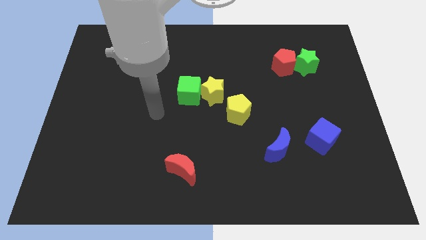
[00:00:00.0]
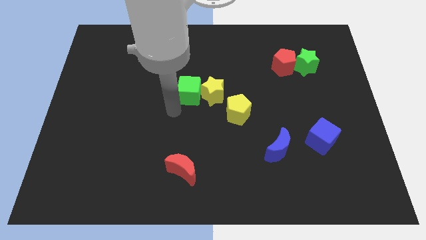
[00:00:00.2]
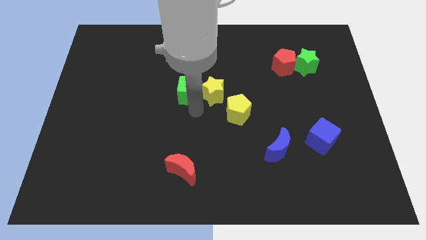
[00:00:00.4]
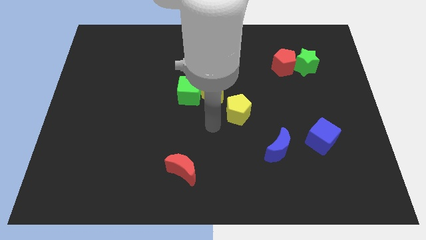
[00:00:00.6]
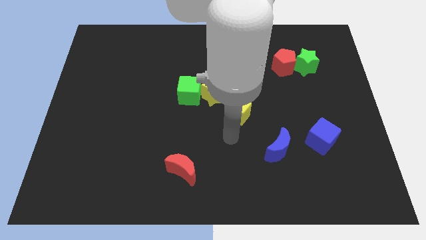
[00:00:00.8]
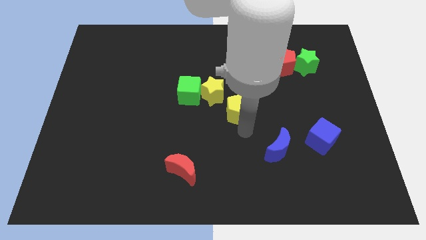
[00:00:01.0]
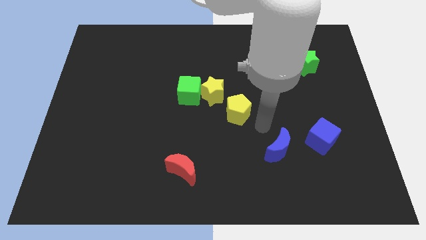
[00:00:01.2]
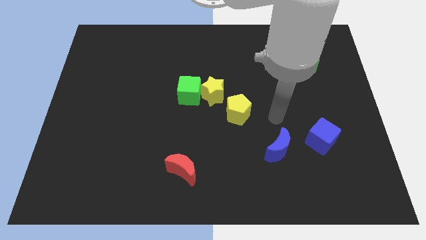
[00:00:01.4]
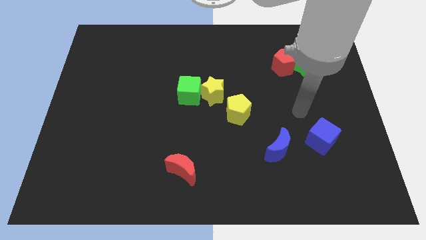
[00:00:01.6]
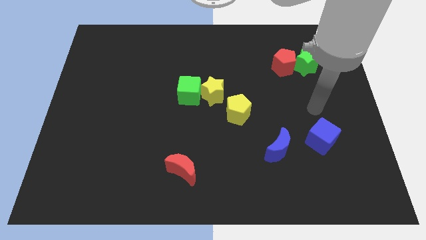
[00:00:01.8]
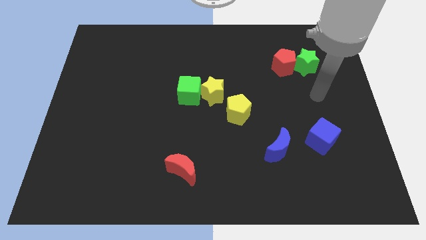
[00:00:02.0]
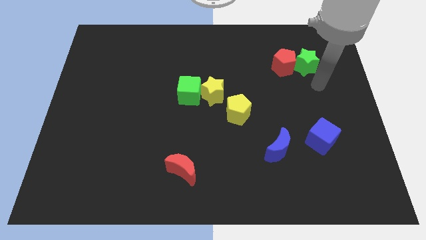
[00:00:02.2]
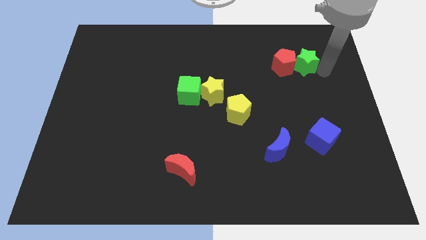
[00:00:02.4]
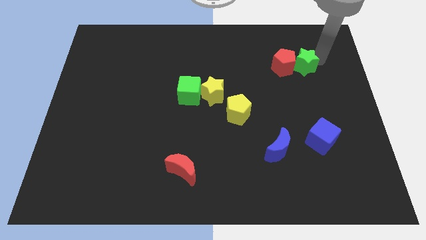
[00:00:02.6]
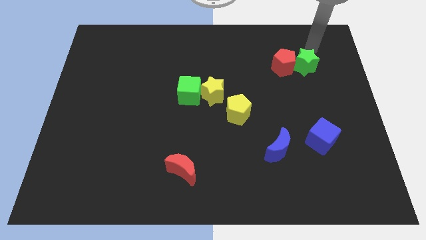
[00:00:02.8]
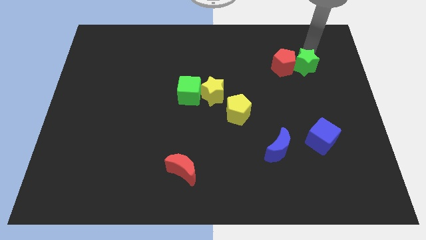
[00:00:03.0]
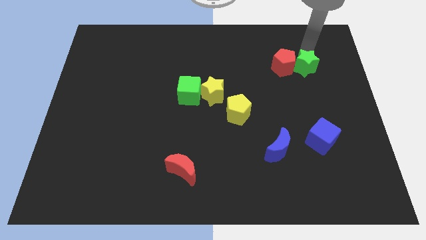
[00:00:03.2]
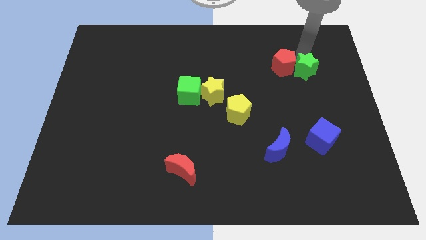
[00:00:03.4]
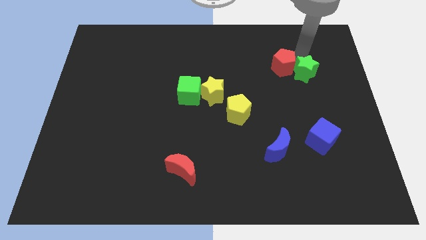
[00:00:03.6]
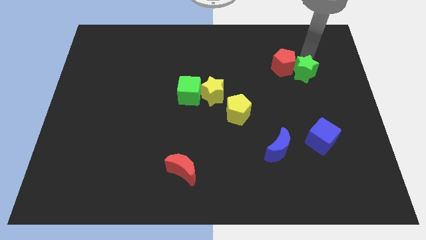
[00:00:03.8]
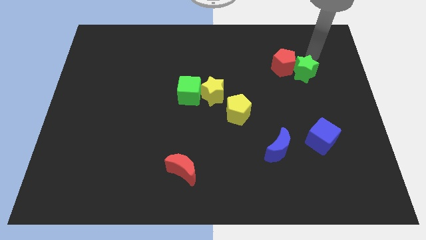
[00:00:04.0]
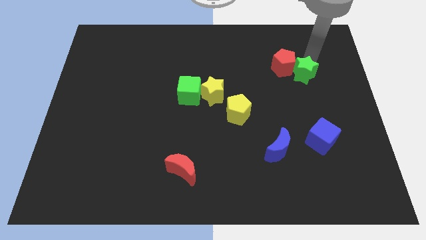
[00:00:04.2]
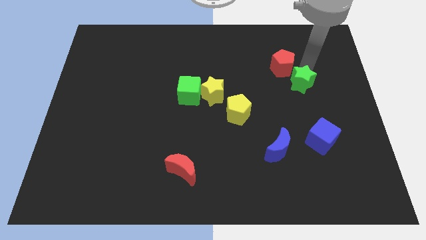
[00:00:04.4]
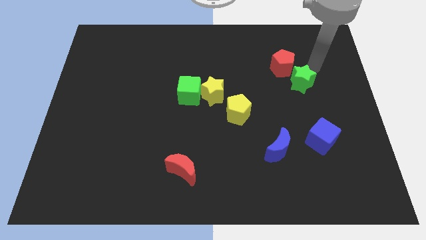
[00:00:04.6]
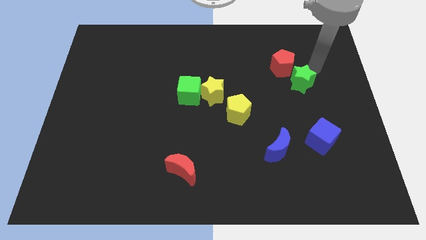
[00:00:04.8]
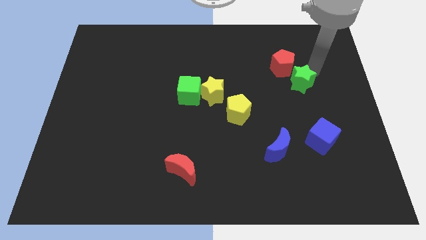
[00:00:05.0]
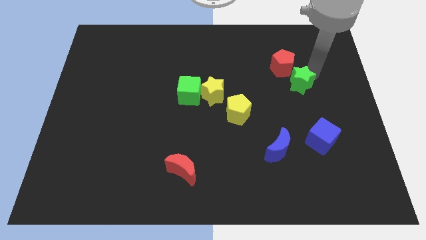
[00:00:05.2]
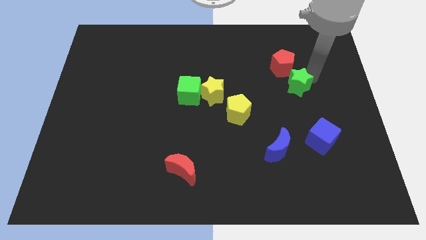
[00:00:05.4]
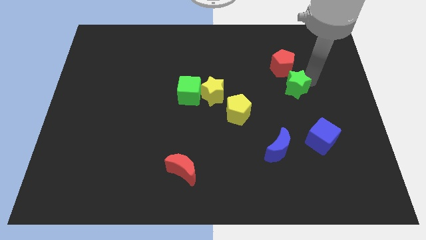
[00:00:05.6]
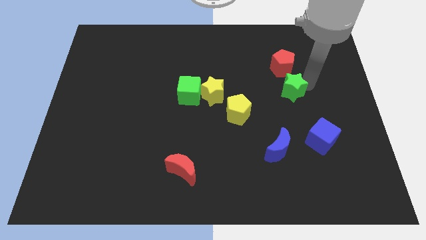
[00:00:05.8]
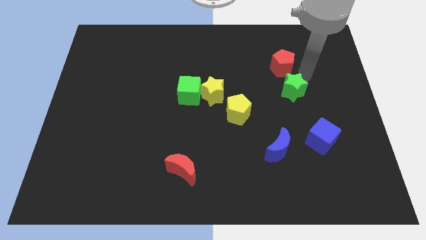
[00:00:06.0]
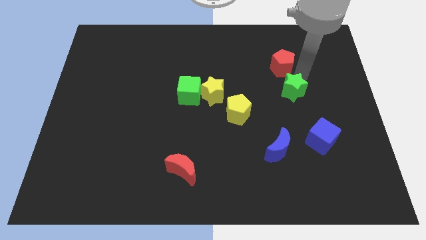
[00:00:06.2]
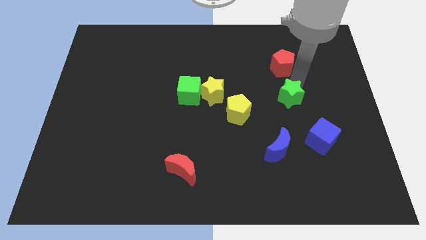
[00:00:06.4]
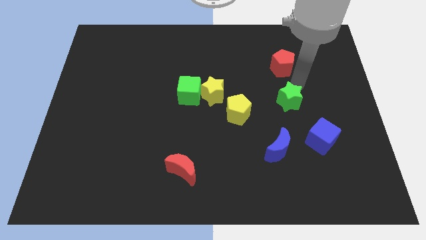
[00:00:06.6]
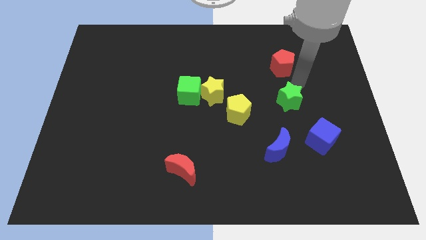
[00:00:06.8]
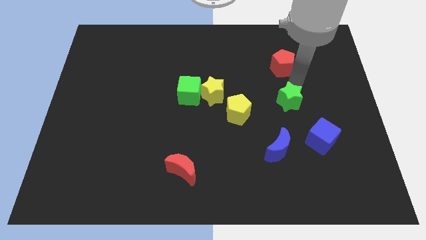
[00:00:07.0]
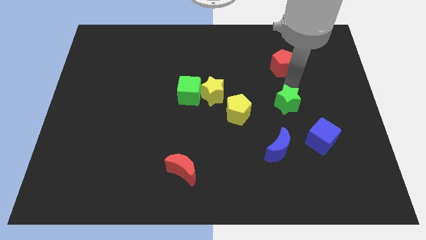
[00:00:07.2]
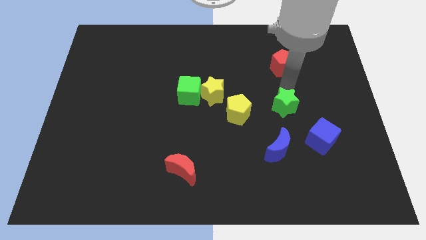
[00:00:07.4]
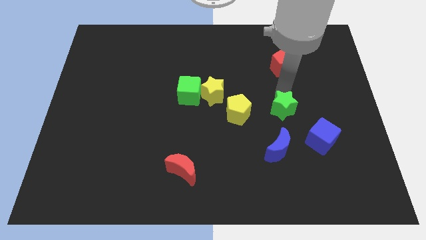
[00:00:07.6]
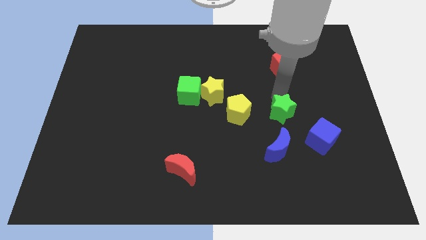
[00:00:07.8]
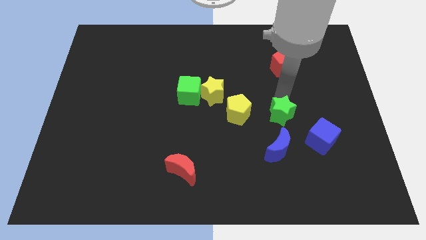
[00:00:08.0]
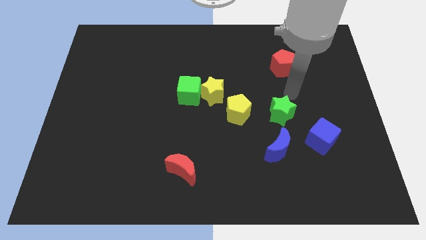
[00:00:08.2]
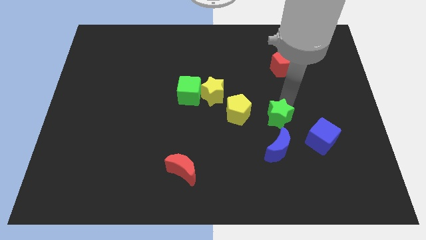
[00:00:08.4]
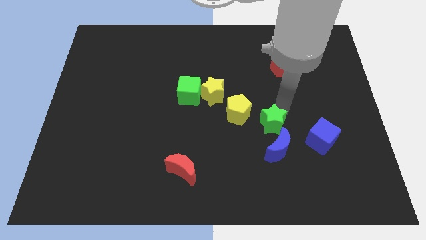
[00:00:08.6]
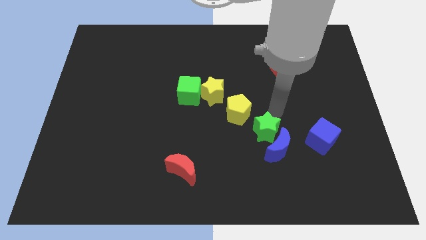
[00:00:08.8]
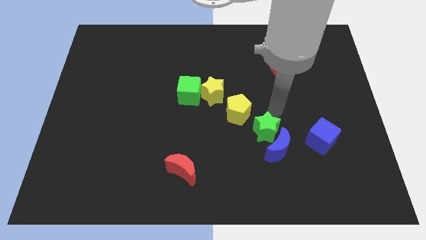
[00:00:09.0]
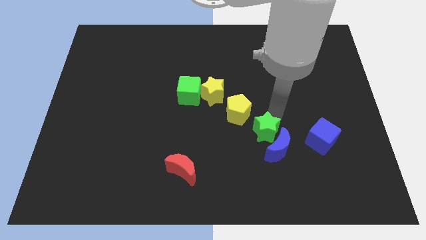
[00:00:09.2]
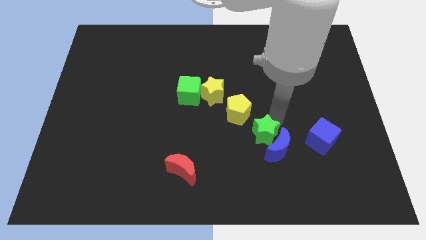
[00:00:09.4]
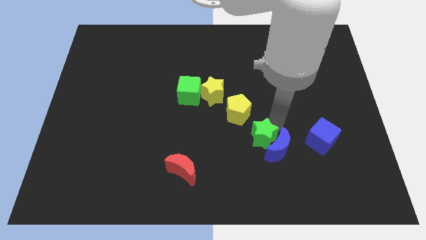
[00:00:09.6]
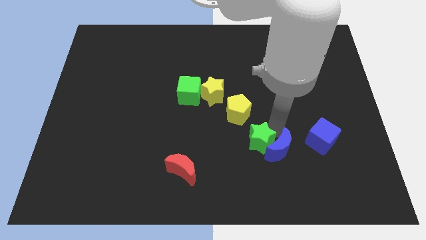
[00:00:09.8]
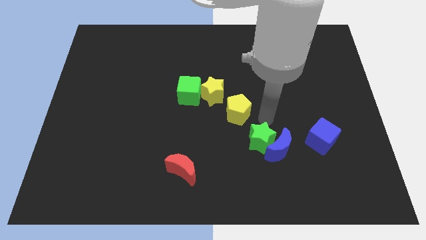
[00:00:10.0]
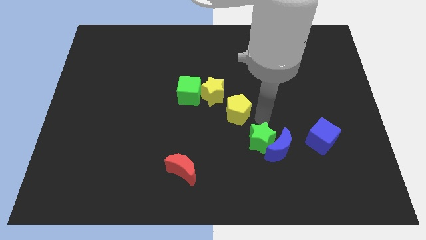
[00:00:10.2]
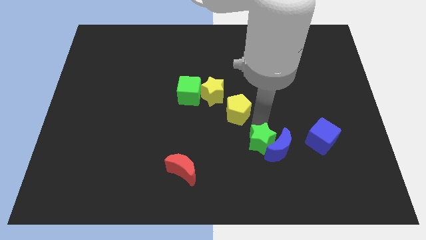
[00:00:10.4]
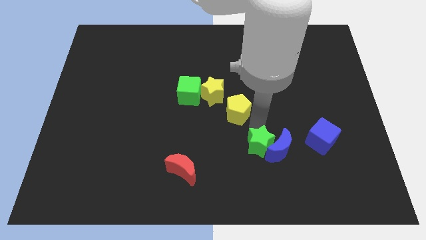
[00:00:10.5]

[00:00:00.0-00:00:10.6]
put the green star to the bottom left side of the blue moon

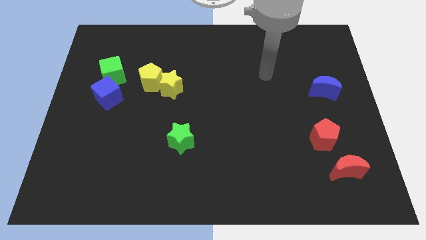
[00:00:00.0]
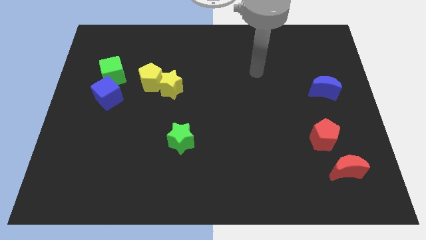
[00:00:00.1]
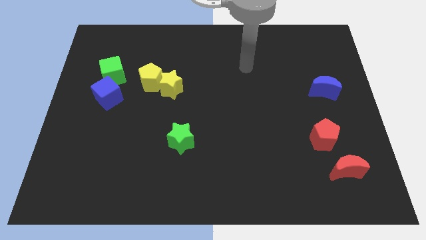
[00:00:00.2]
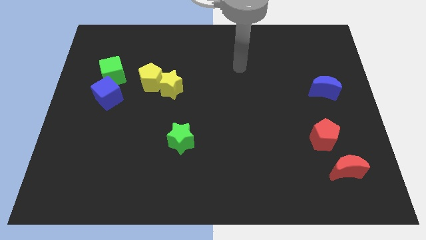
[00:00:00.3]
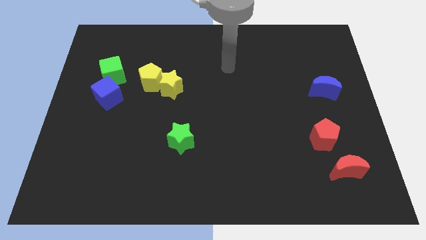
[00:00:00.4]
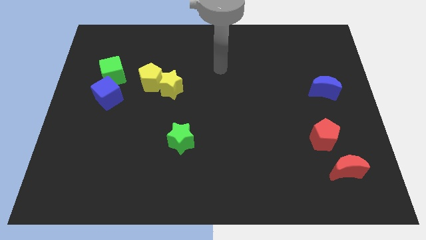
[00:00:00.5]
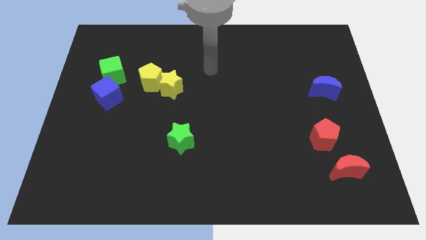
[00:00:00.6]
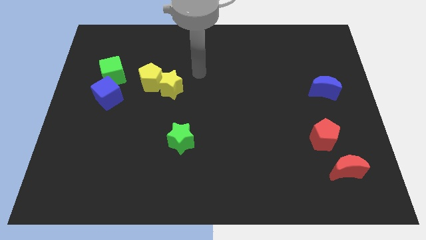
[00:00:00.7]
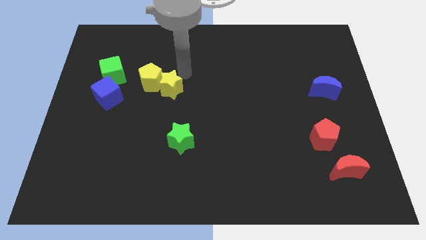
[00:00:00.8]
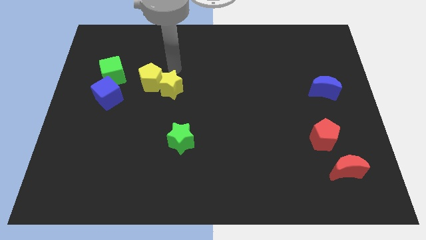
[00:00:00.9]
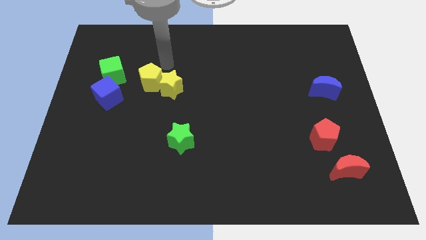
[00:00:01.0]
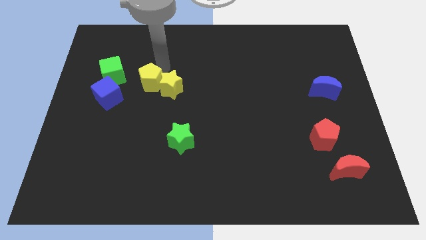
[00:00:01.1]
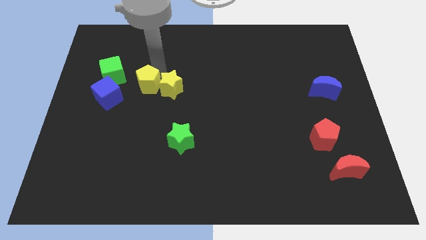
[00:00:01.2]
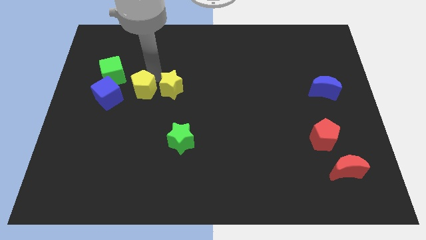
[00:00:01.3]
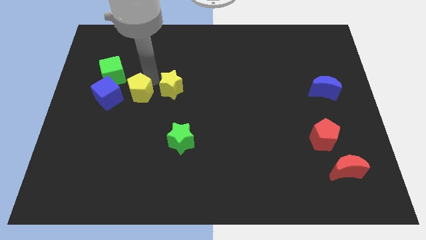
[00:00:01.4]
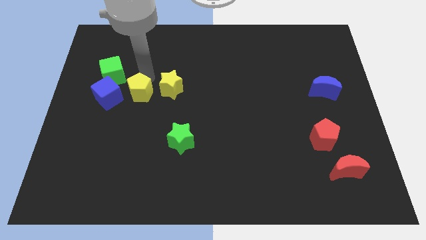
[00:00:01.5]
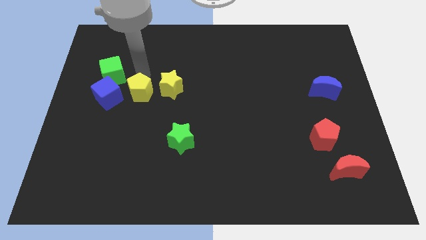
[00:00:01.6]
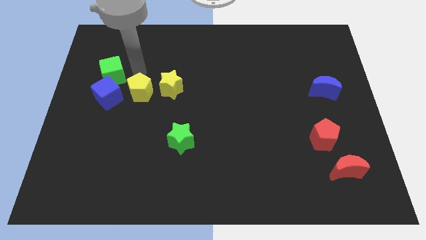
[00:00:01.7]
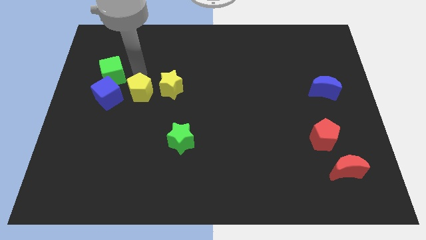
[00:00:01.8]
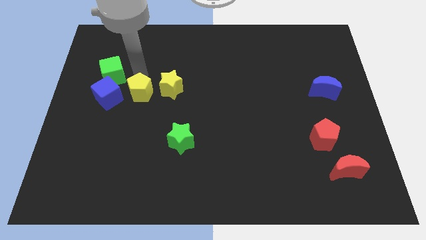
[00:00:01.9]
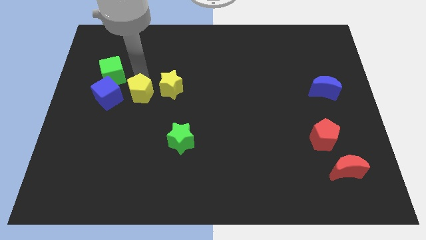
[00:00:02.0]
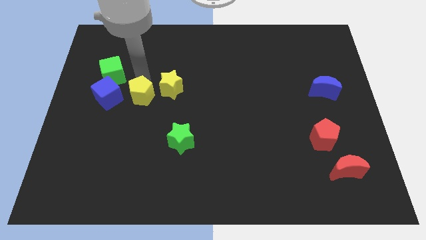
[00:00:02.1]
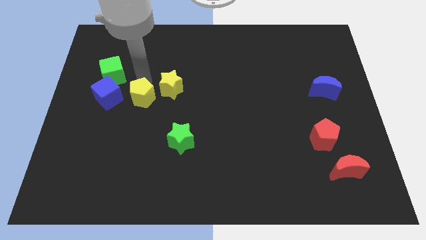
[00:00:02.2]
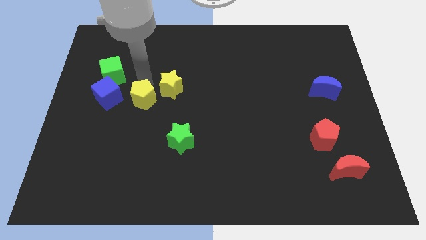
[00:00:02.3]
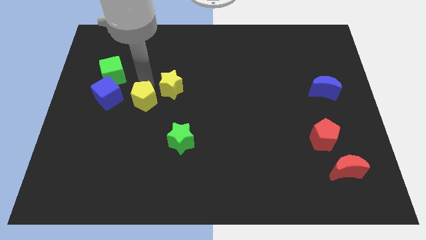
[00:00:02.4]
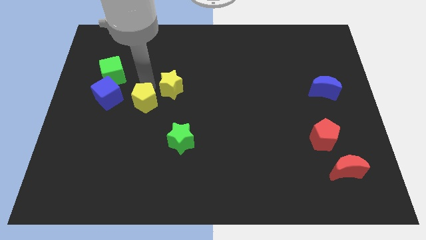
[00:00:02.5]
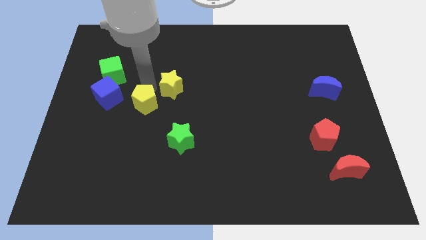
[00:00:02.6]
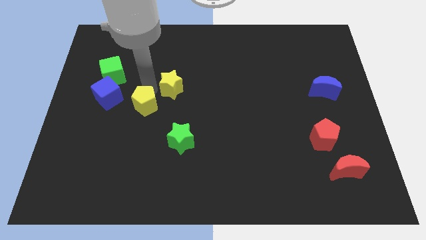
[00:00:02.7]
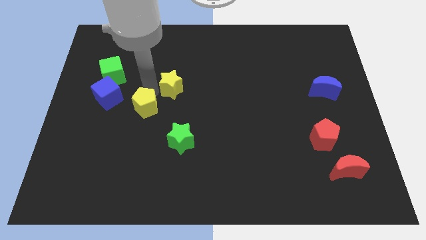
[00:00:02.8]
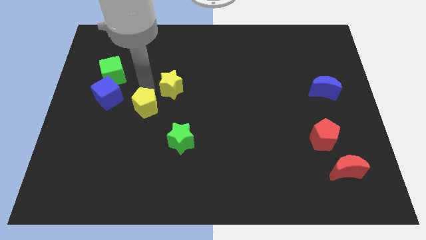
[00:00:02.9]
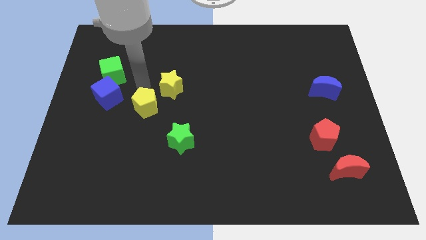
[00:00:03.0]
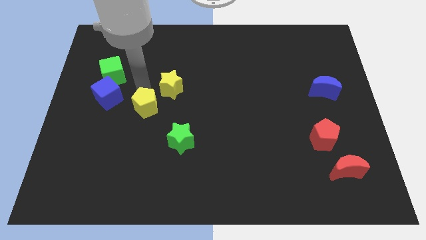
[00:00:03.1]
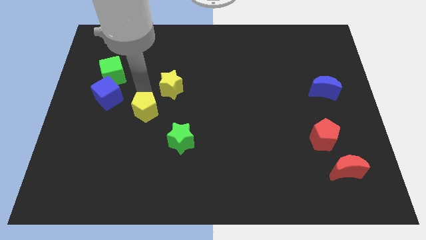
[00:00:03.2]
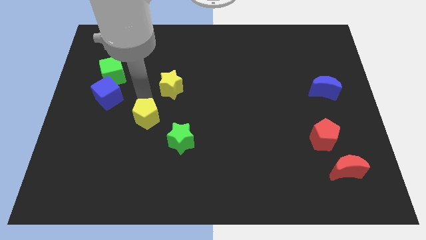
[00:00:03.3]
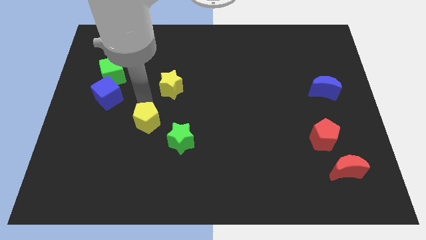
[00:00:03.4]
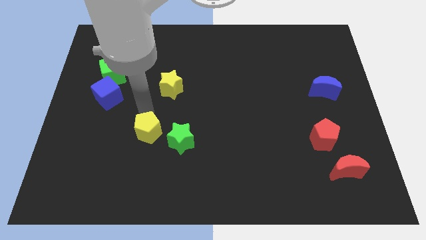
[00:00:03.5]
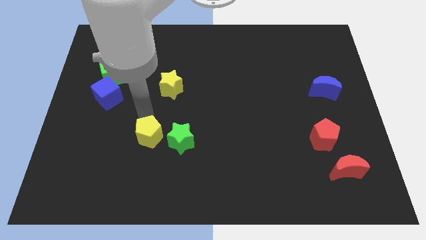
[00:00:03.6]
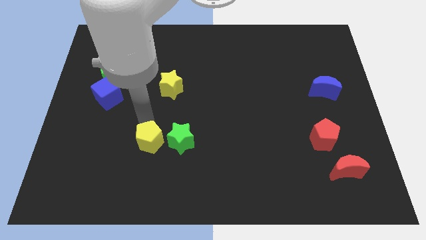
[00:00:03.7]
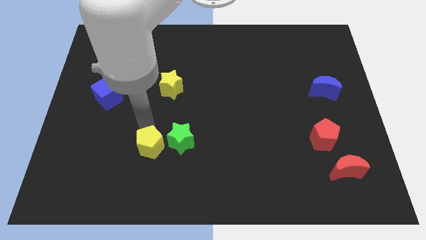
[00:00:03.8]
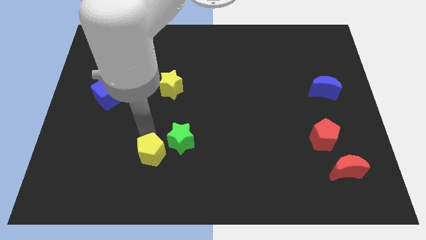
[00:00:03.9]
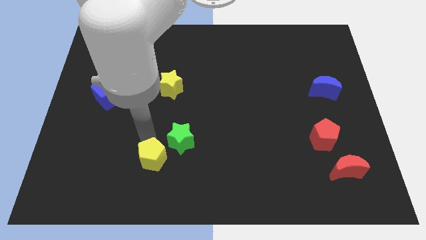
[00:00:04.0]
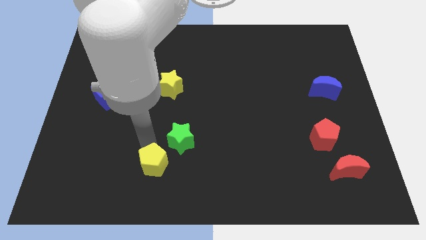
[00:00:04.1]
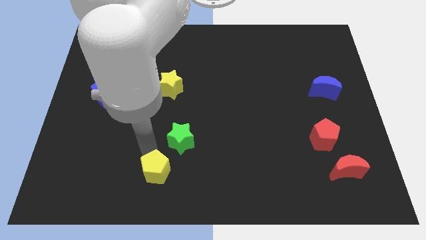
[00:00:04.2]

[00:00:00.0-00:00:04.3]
push the yellow pentagon to the bottom of the green star
